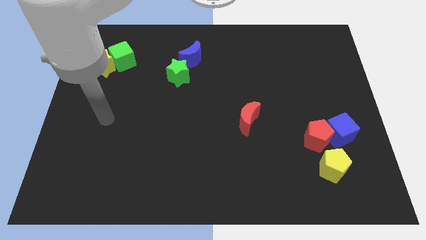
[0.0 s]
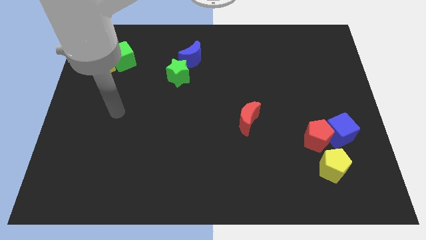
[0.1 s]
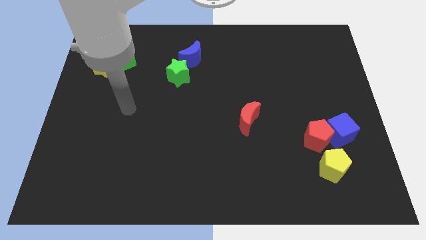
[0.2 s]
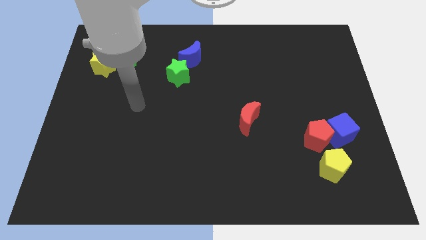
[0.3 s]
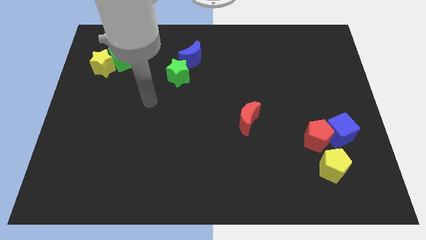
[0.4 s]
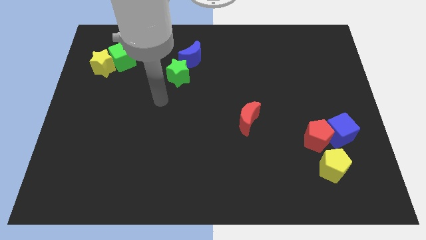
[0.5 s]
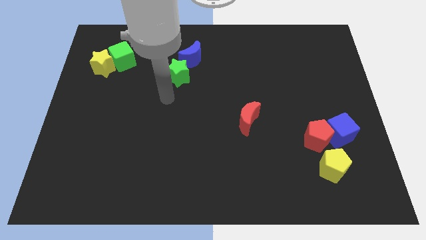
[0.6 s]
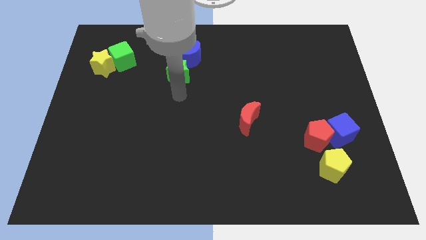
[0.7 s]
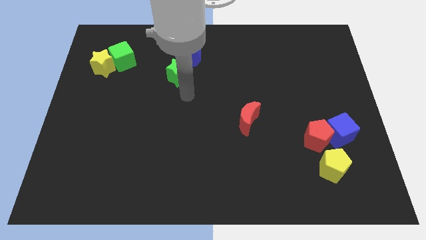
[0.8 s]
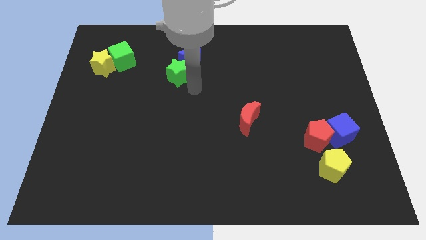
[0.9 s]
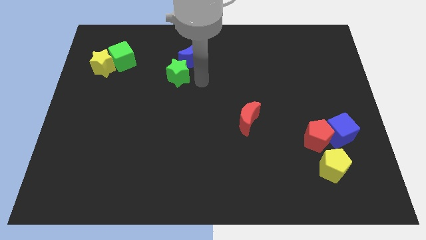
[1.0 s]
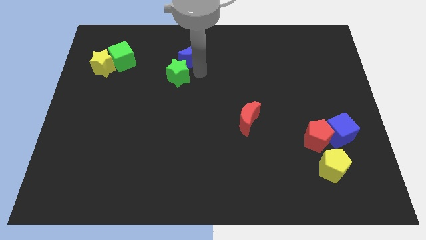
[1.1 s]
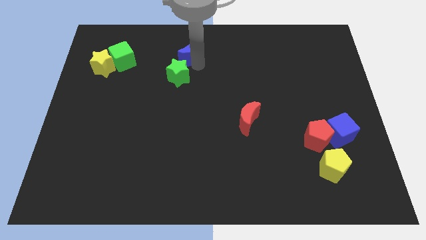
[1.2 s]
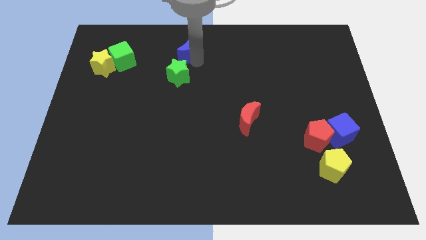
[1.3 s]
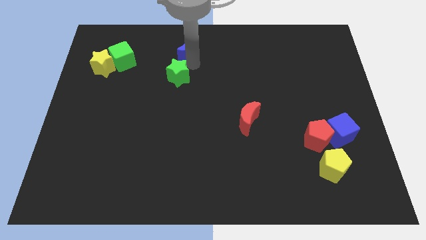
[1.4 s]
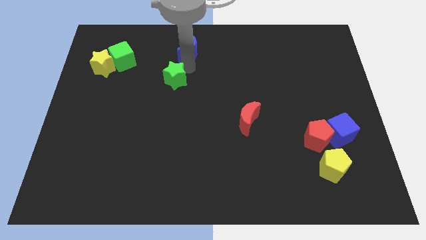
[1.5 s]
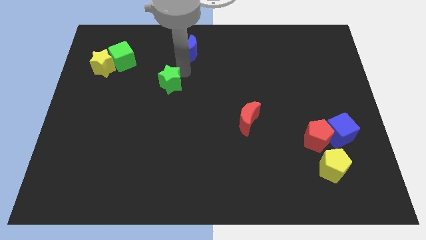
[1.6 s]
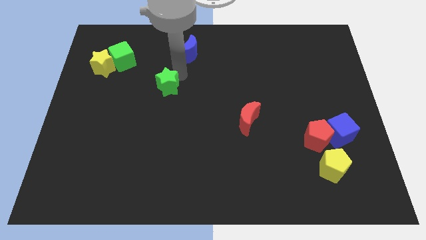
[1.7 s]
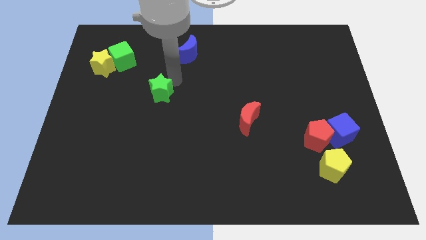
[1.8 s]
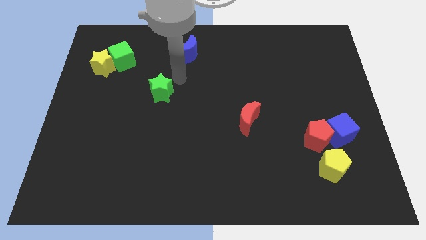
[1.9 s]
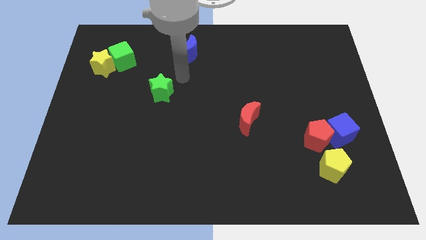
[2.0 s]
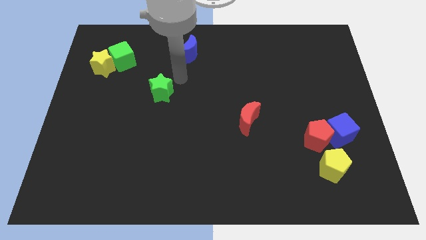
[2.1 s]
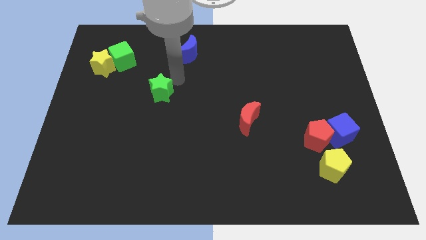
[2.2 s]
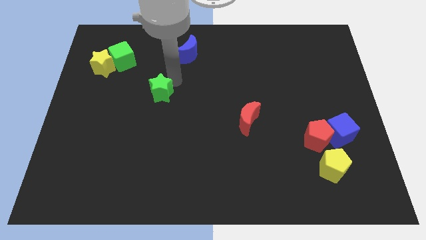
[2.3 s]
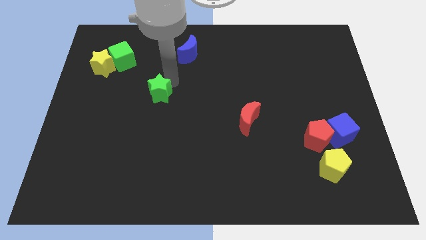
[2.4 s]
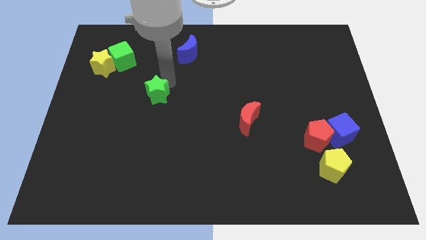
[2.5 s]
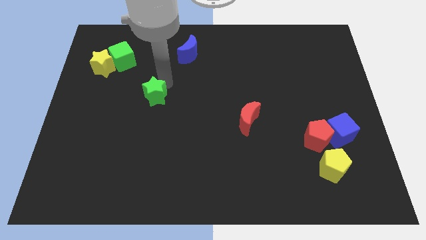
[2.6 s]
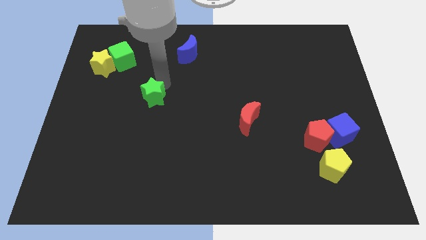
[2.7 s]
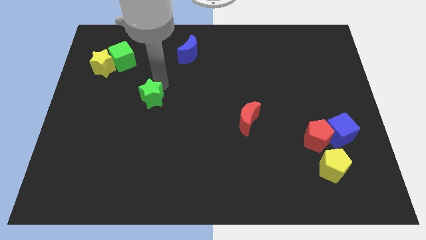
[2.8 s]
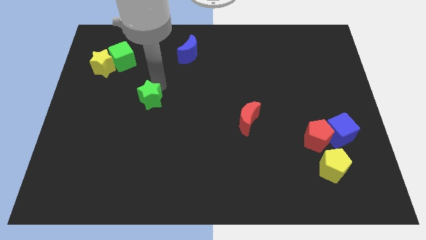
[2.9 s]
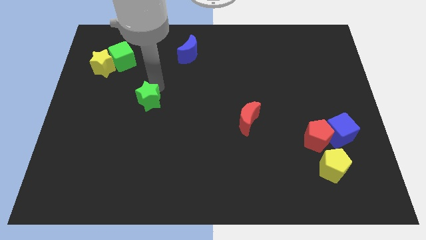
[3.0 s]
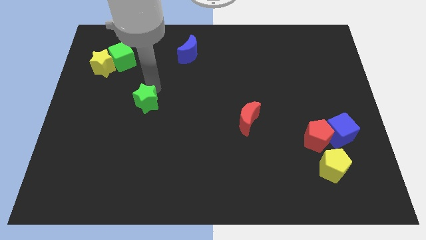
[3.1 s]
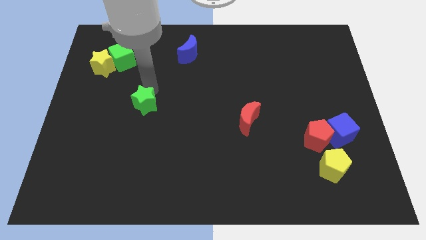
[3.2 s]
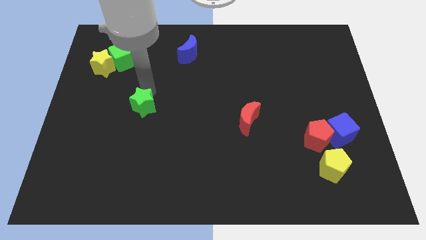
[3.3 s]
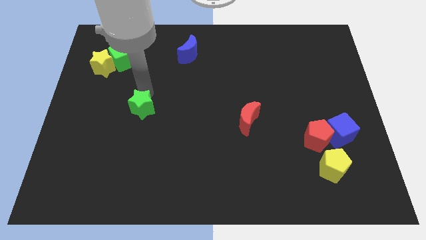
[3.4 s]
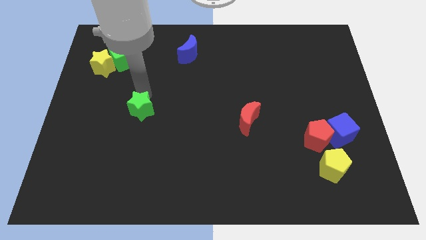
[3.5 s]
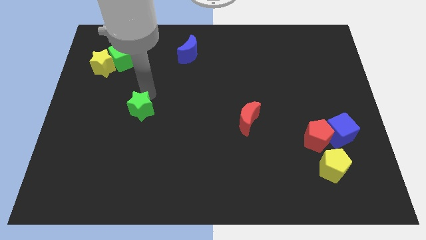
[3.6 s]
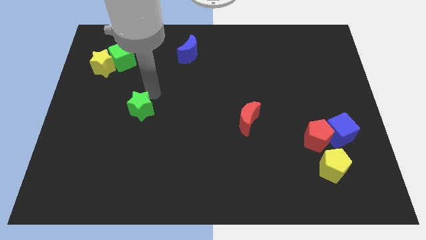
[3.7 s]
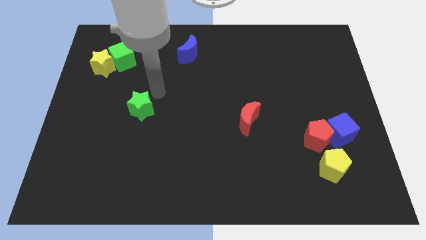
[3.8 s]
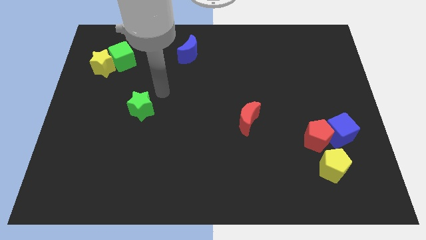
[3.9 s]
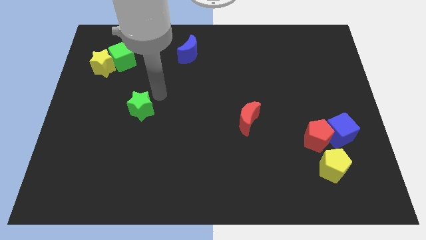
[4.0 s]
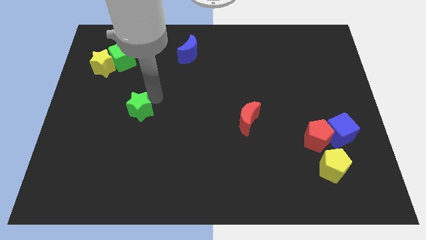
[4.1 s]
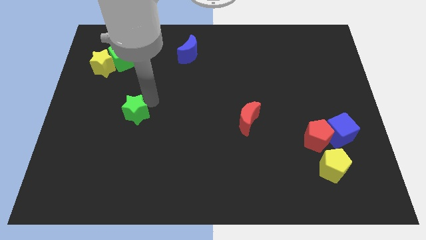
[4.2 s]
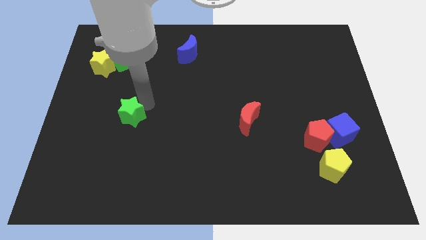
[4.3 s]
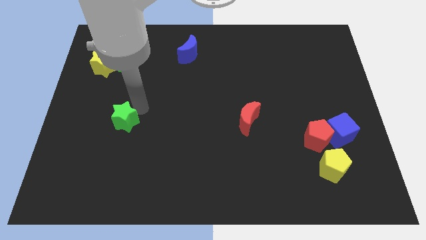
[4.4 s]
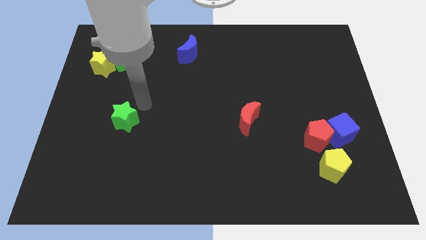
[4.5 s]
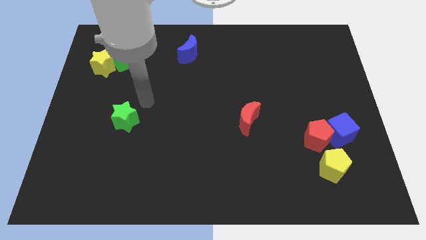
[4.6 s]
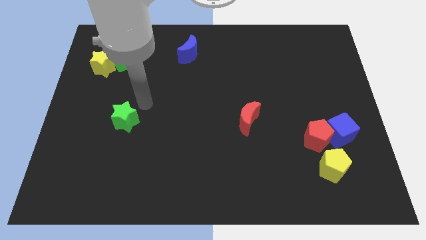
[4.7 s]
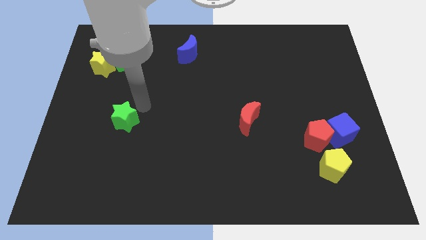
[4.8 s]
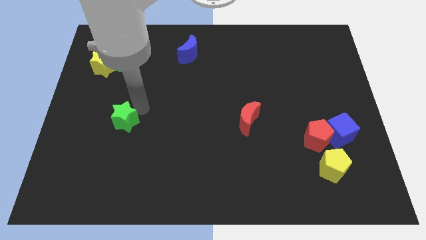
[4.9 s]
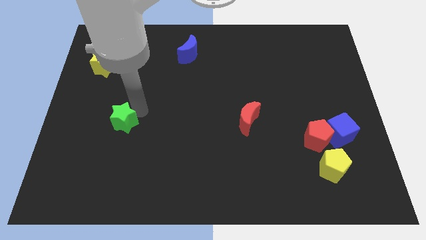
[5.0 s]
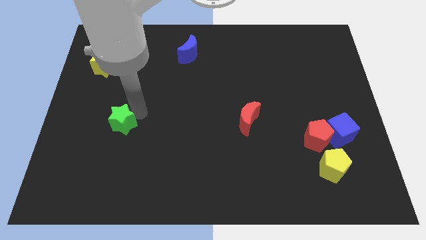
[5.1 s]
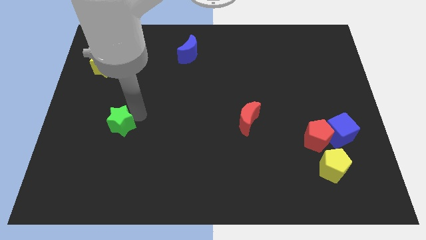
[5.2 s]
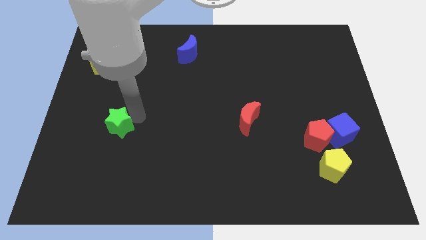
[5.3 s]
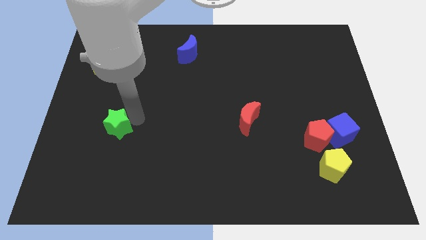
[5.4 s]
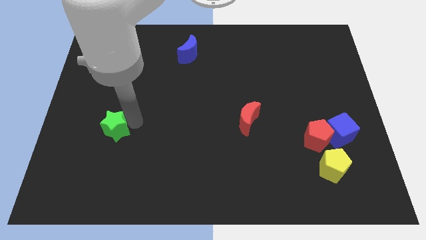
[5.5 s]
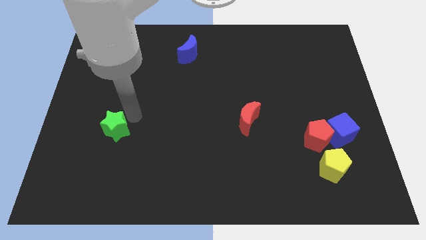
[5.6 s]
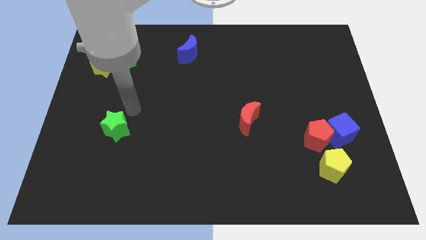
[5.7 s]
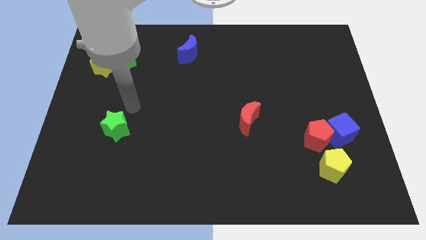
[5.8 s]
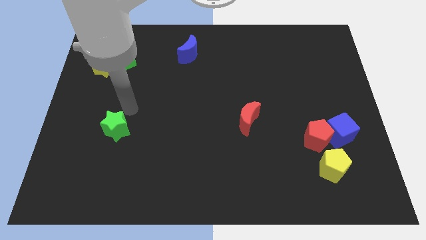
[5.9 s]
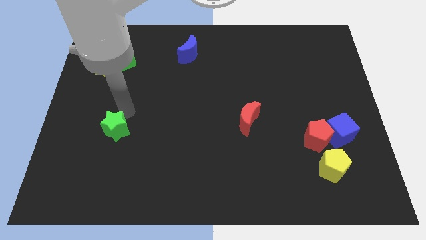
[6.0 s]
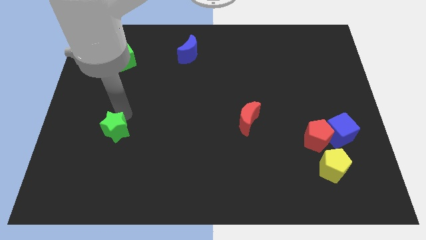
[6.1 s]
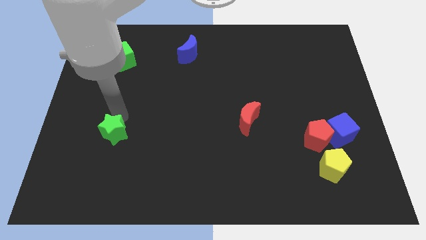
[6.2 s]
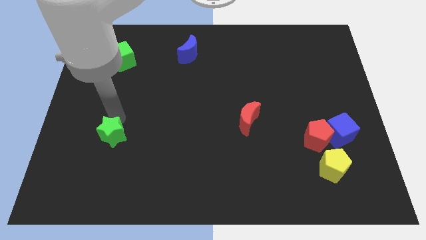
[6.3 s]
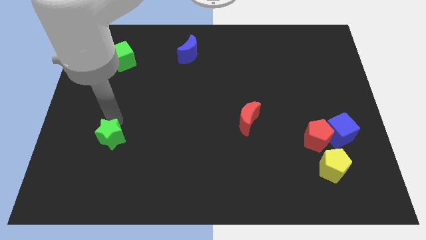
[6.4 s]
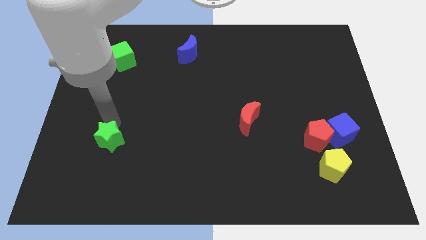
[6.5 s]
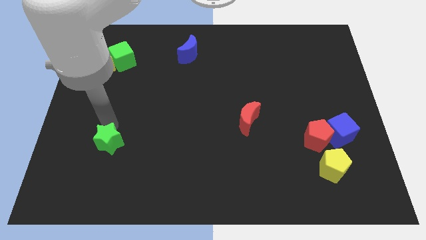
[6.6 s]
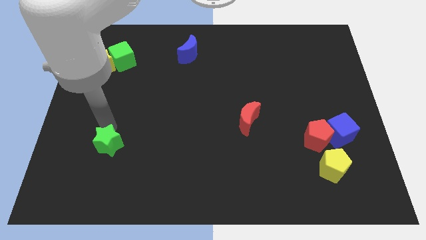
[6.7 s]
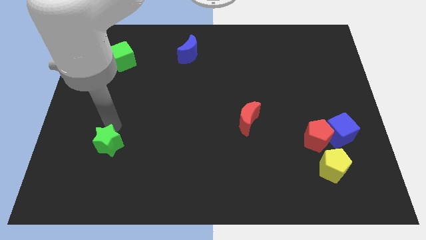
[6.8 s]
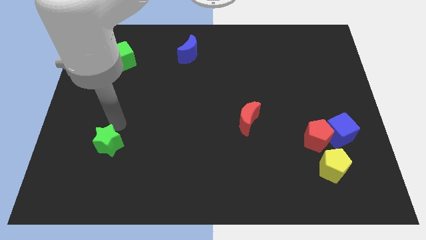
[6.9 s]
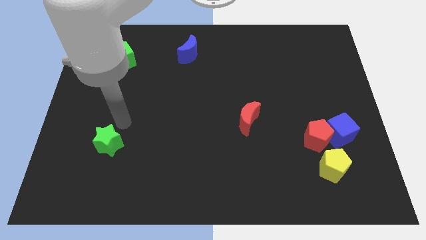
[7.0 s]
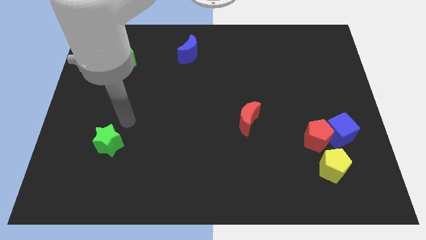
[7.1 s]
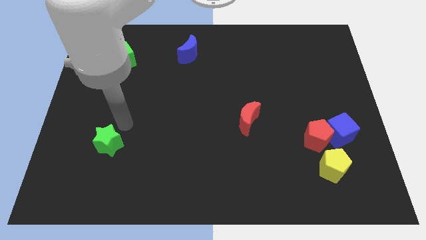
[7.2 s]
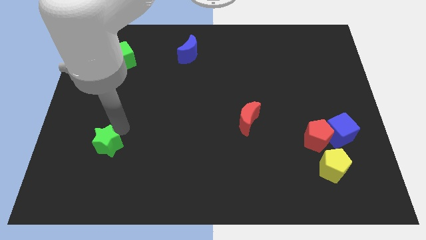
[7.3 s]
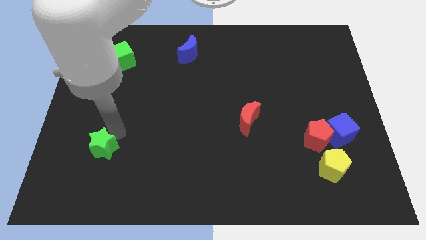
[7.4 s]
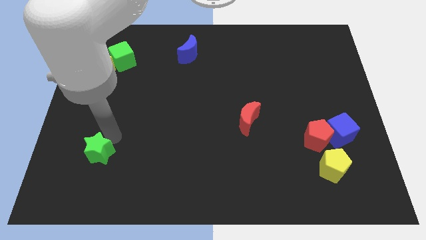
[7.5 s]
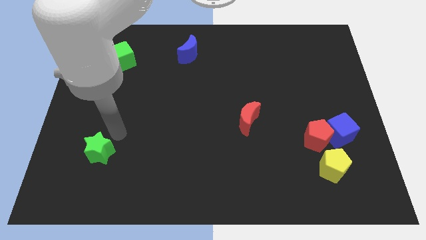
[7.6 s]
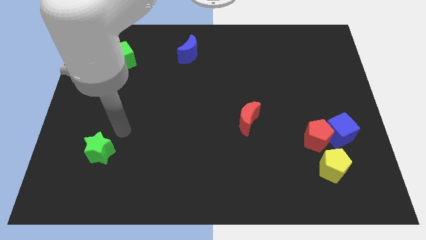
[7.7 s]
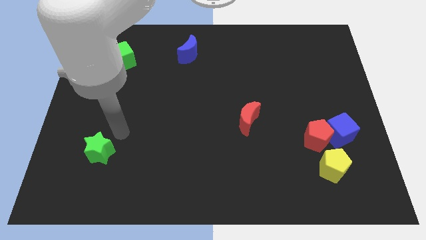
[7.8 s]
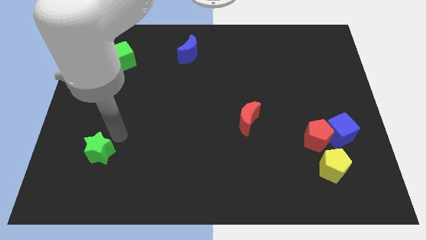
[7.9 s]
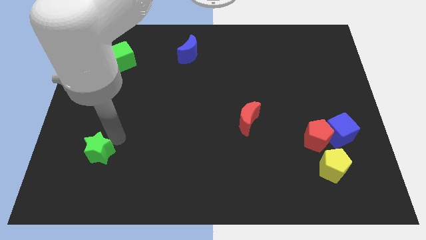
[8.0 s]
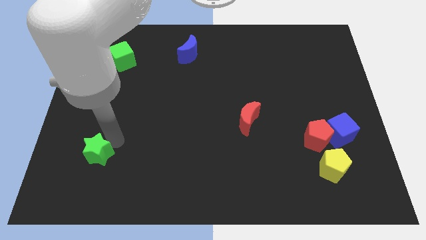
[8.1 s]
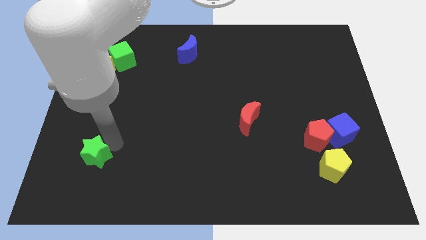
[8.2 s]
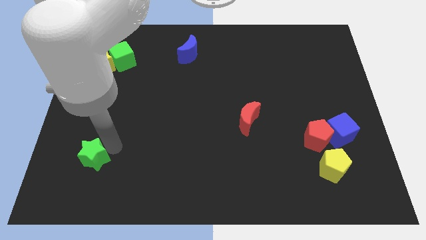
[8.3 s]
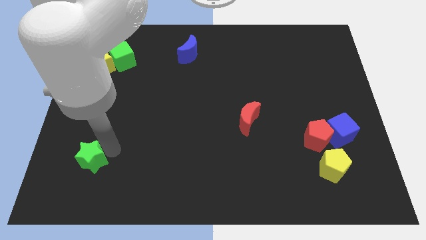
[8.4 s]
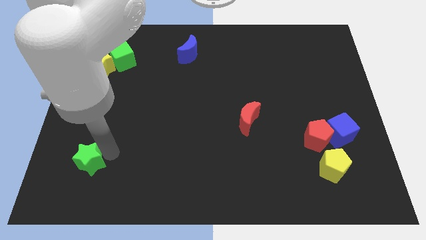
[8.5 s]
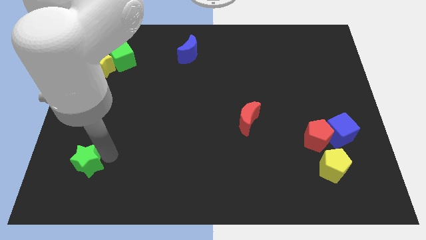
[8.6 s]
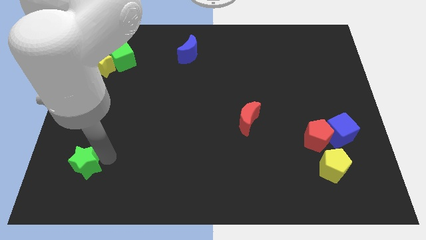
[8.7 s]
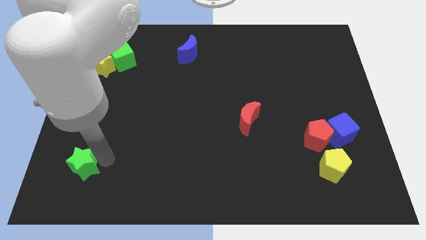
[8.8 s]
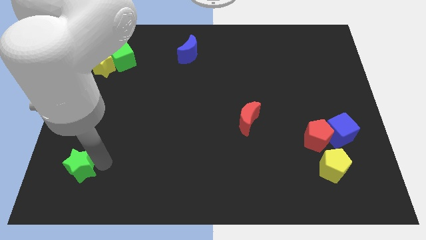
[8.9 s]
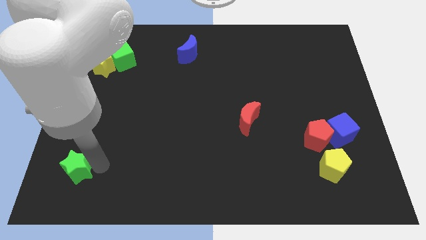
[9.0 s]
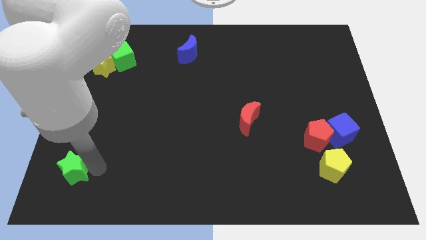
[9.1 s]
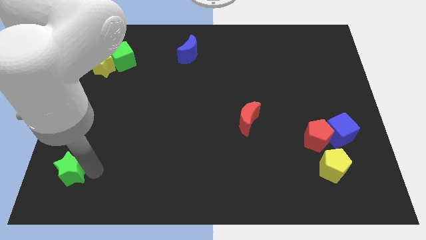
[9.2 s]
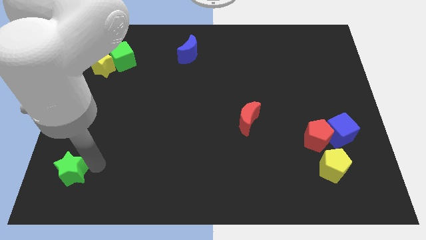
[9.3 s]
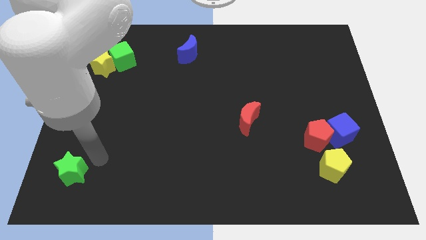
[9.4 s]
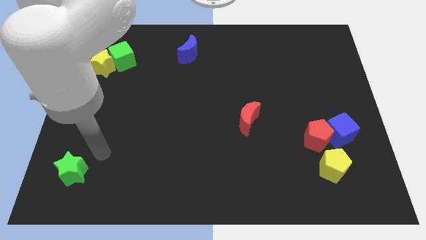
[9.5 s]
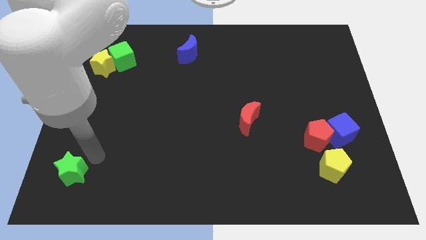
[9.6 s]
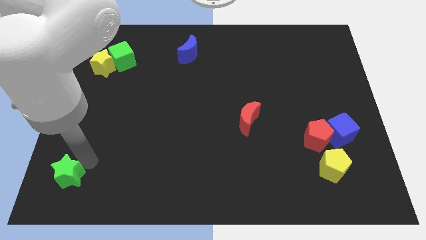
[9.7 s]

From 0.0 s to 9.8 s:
put the green star to the bottom left
